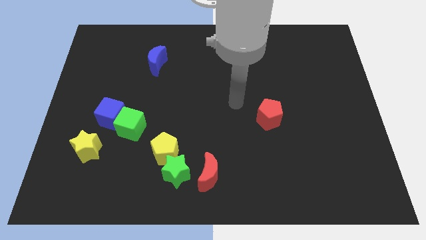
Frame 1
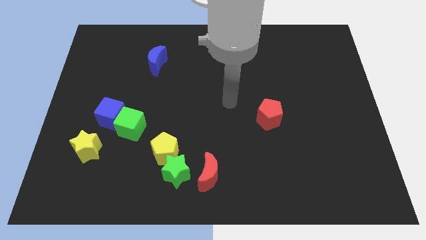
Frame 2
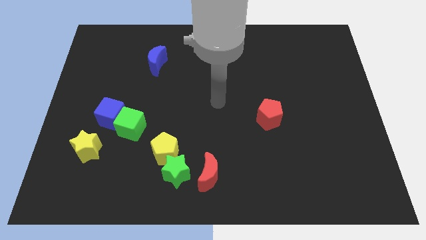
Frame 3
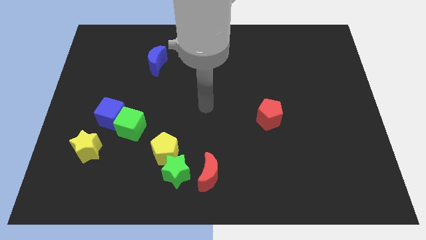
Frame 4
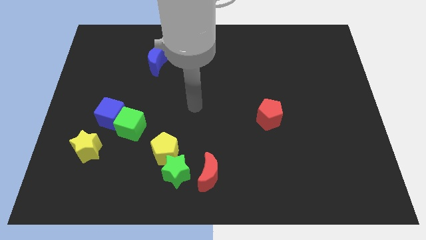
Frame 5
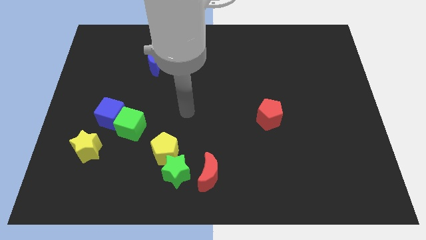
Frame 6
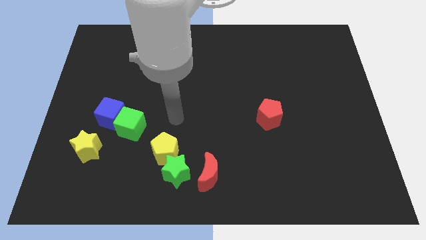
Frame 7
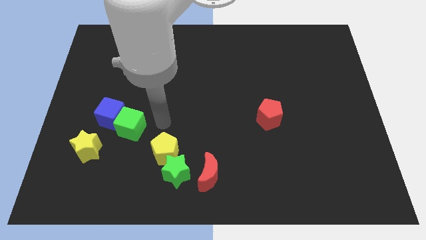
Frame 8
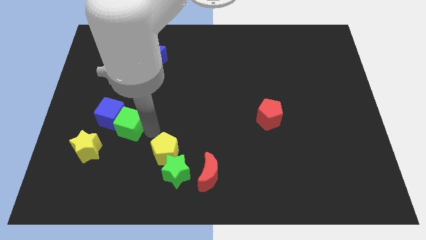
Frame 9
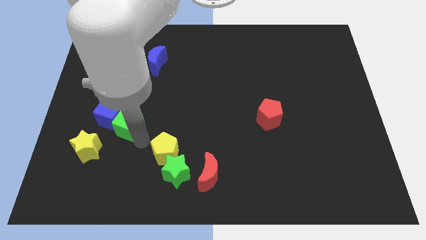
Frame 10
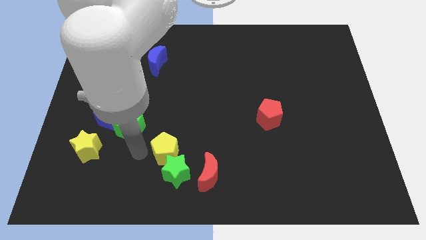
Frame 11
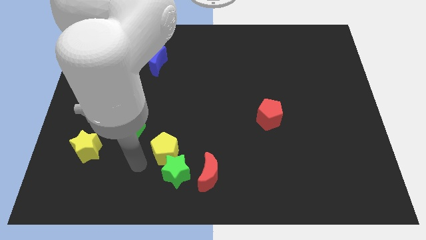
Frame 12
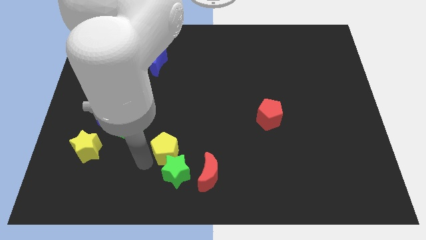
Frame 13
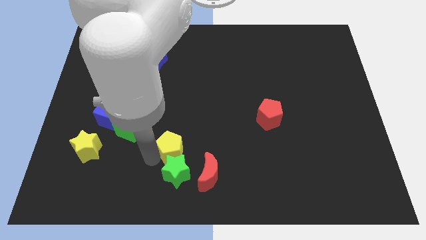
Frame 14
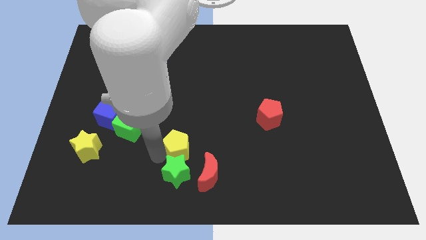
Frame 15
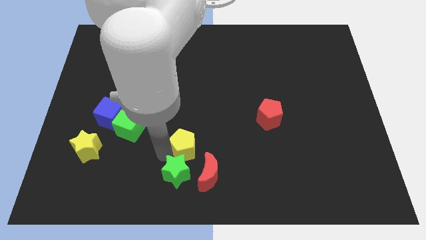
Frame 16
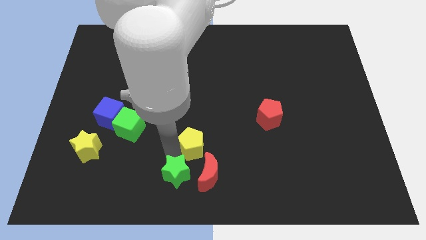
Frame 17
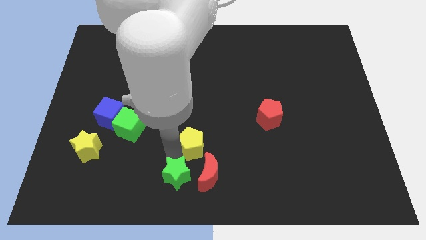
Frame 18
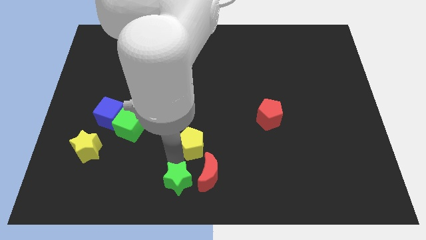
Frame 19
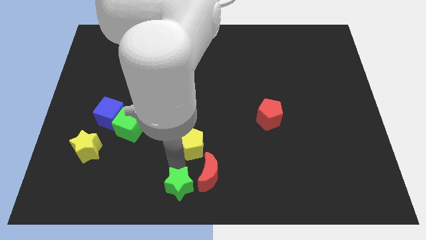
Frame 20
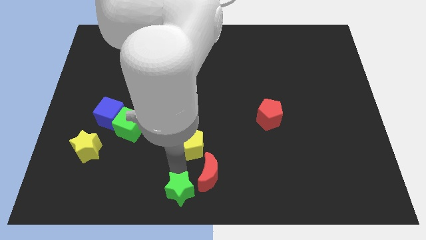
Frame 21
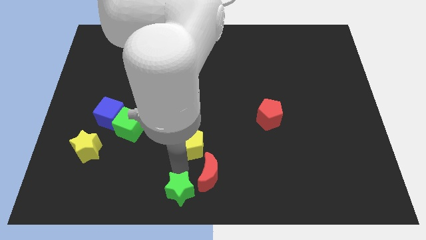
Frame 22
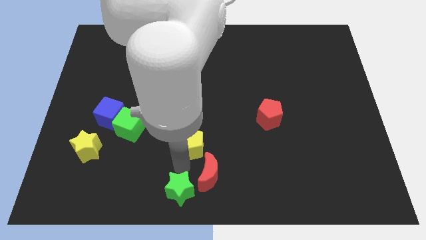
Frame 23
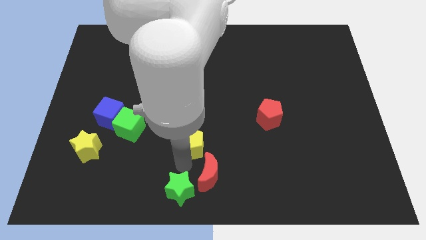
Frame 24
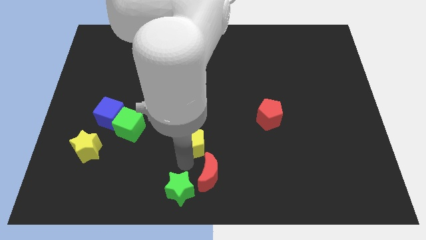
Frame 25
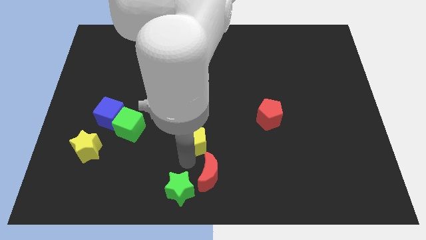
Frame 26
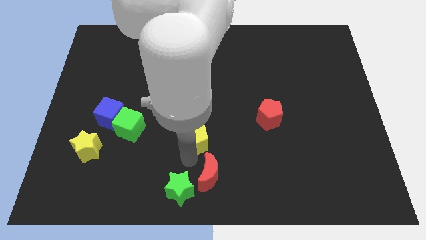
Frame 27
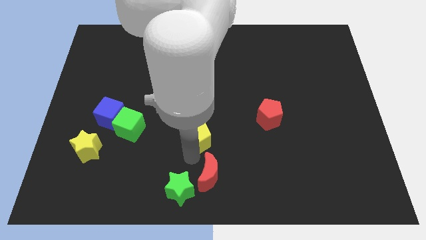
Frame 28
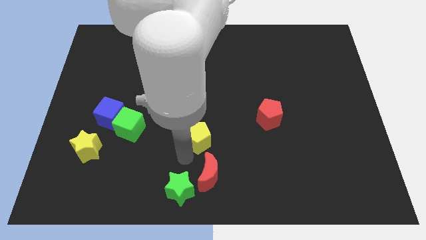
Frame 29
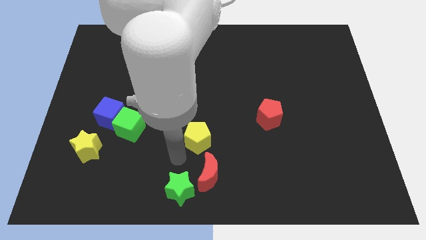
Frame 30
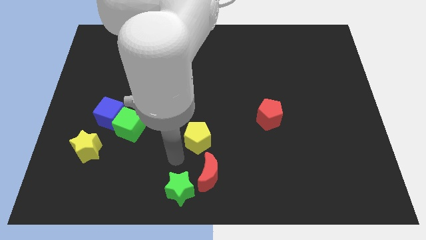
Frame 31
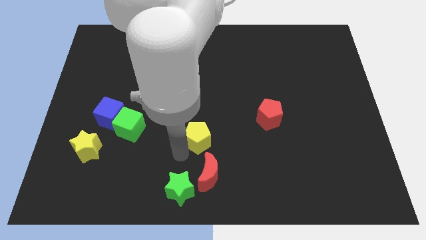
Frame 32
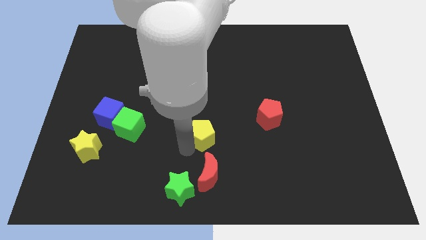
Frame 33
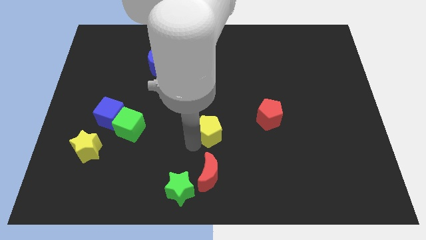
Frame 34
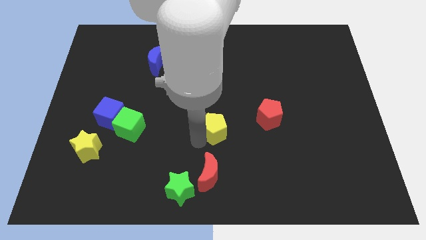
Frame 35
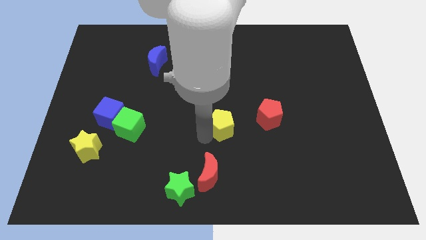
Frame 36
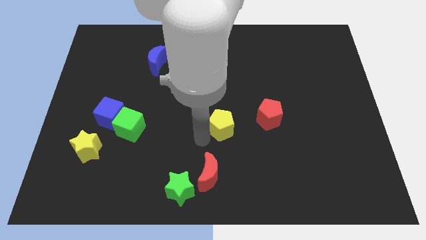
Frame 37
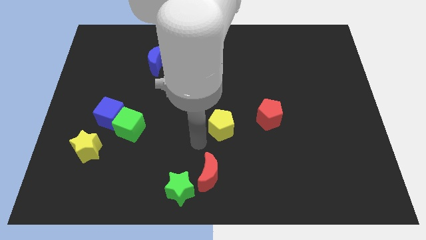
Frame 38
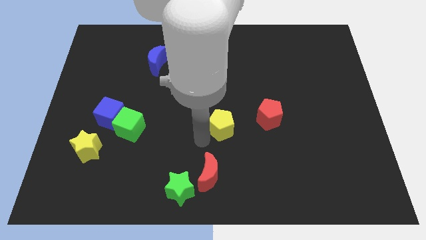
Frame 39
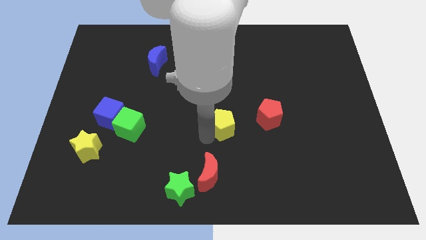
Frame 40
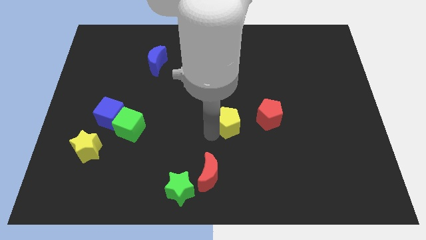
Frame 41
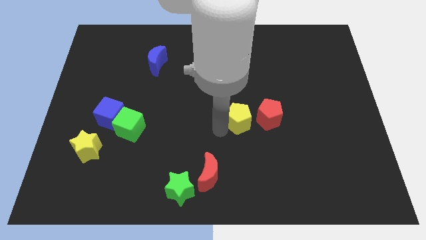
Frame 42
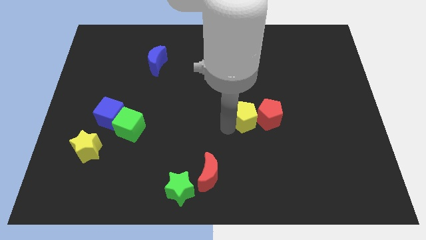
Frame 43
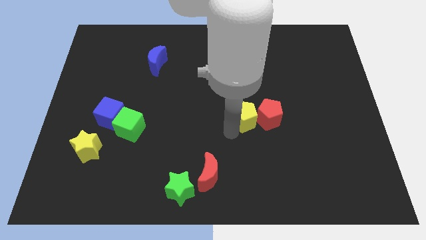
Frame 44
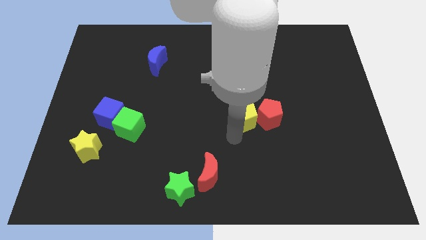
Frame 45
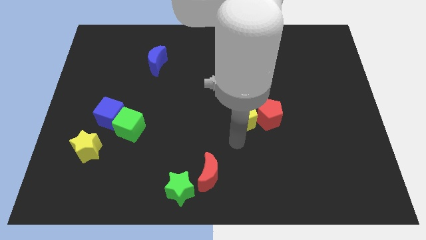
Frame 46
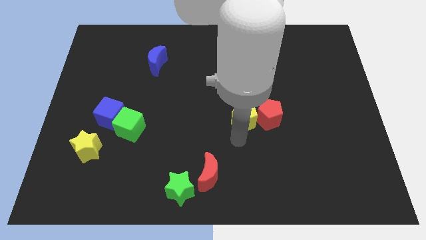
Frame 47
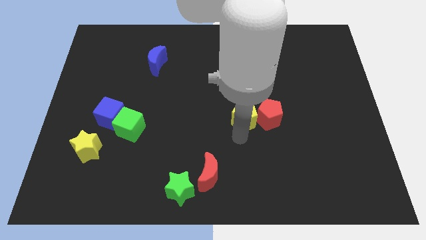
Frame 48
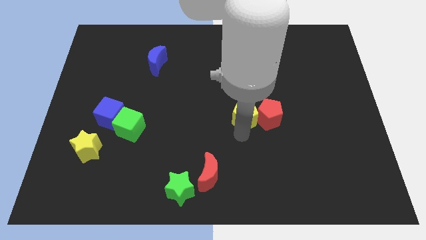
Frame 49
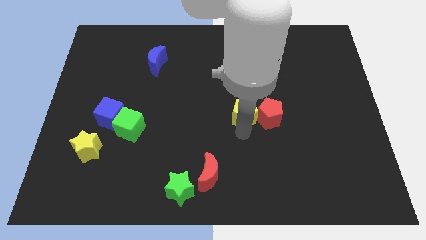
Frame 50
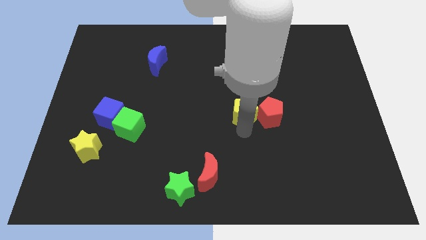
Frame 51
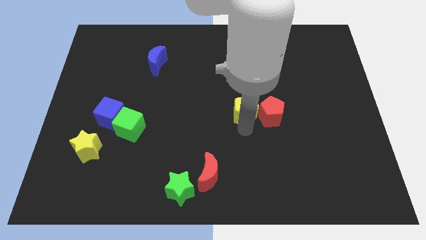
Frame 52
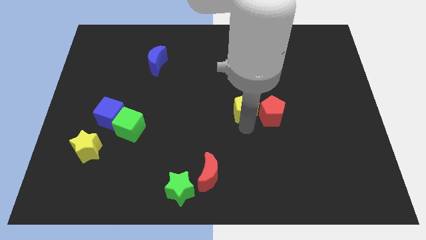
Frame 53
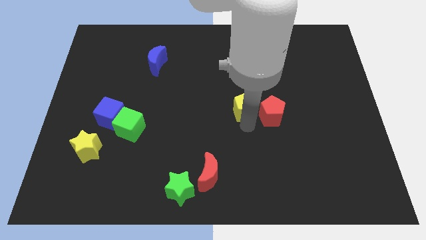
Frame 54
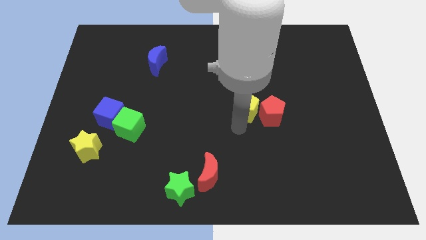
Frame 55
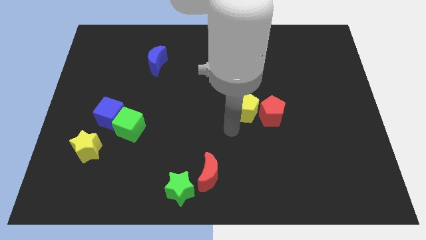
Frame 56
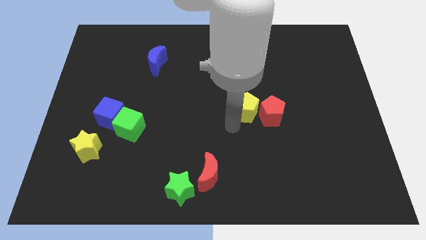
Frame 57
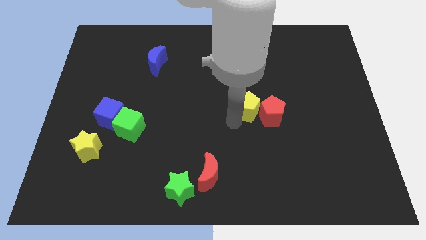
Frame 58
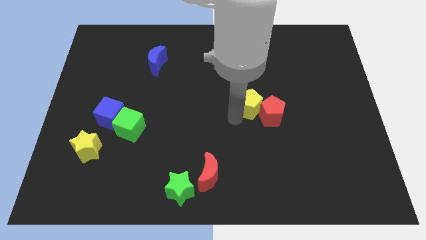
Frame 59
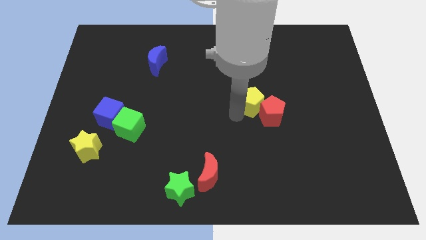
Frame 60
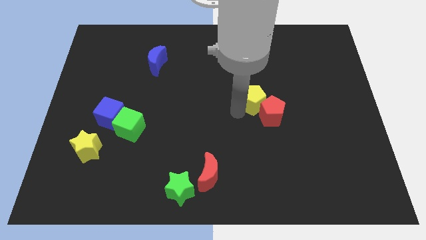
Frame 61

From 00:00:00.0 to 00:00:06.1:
push the yellow pentagon to the top of the red pentagon

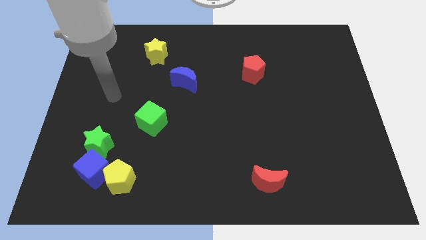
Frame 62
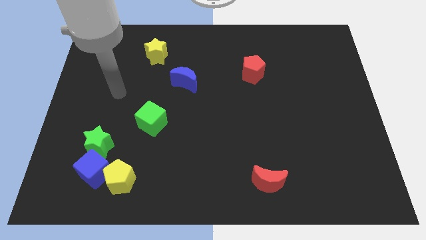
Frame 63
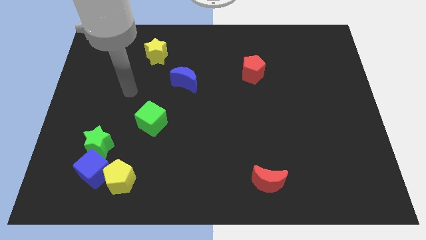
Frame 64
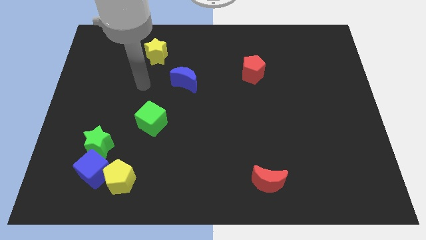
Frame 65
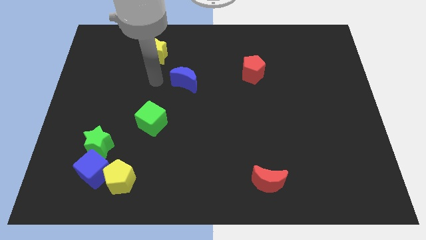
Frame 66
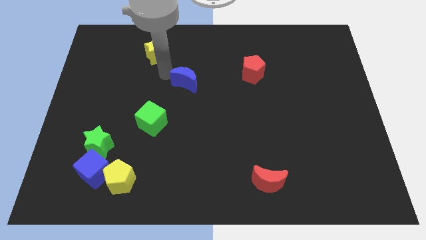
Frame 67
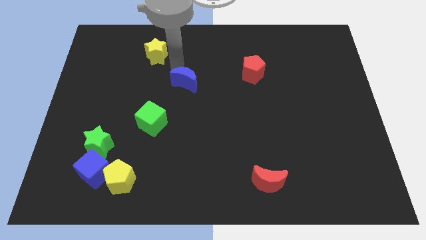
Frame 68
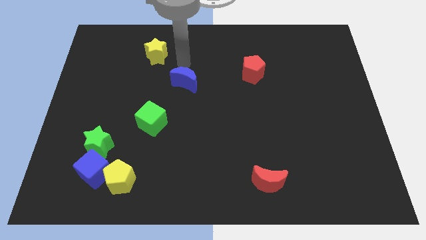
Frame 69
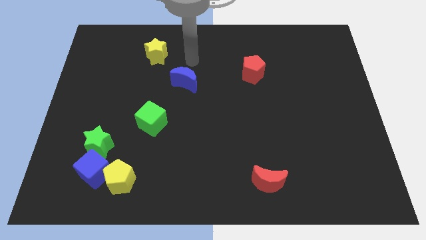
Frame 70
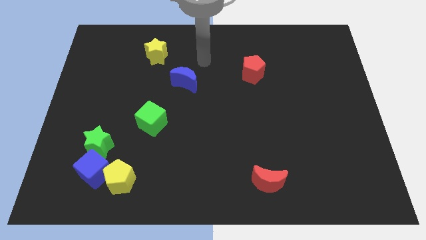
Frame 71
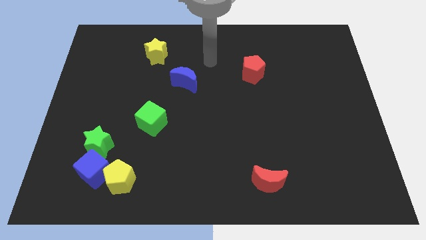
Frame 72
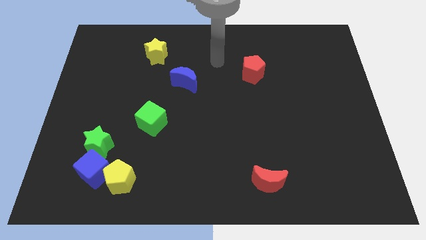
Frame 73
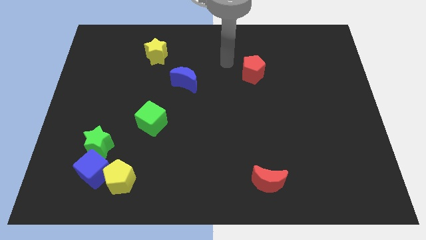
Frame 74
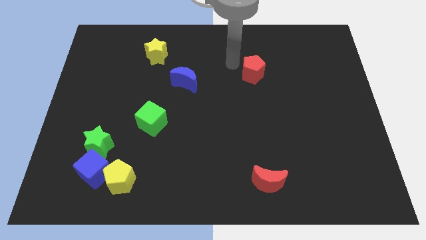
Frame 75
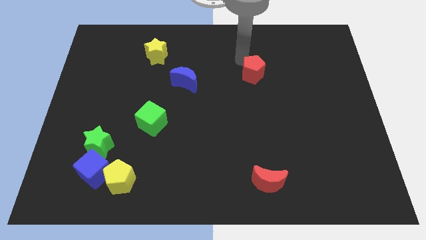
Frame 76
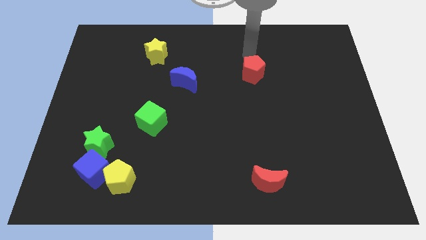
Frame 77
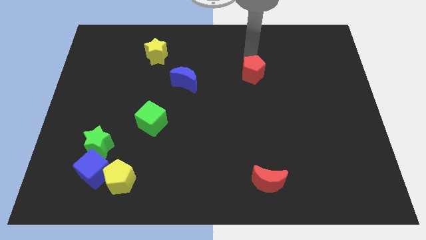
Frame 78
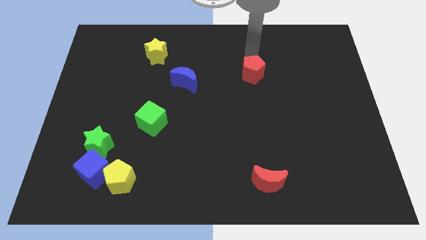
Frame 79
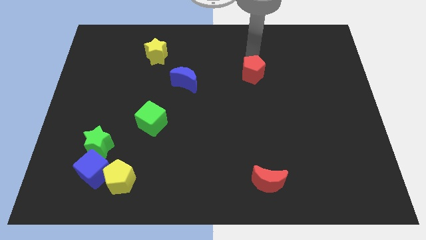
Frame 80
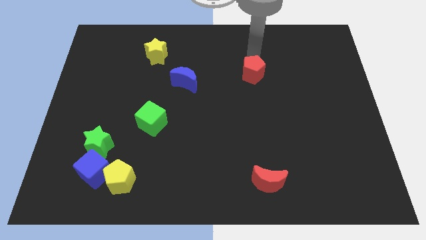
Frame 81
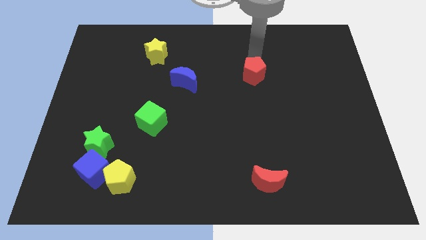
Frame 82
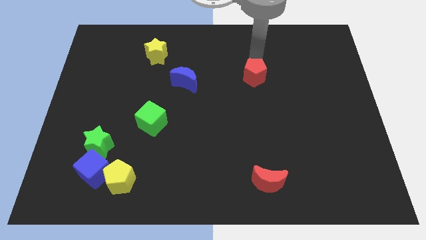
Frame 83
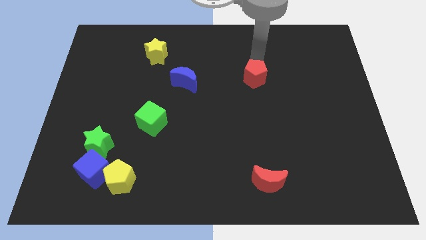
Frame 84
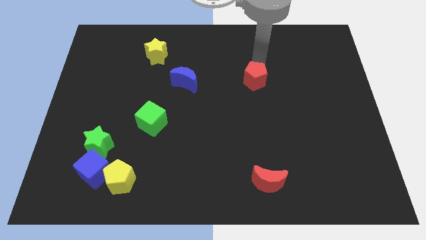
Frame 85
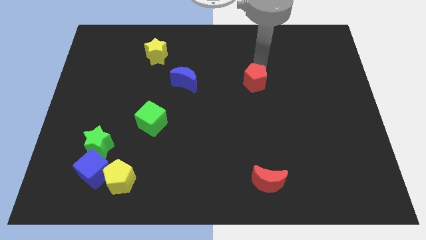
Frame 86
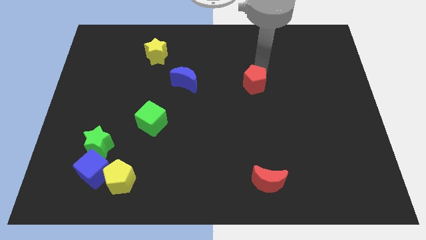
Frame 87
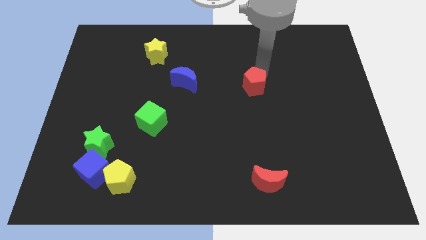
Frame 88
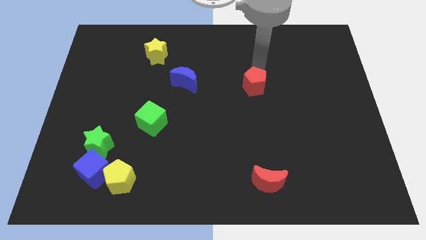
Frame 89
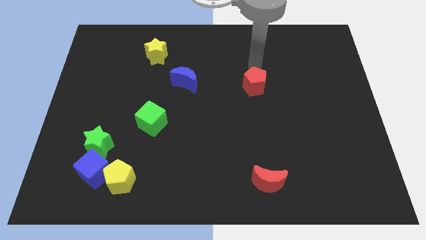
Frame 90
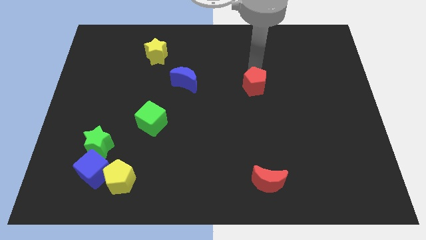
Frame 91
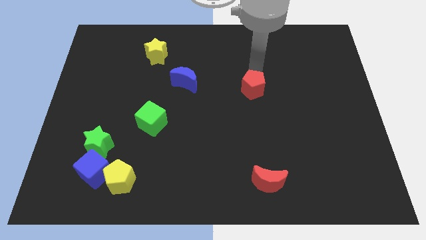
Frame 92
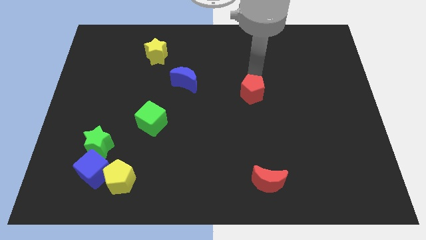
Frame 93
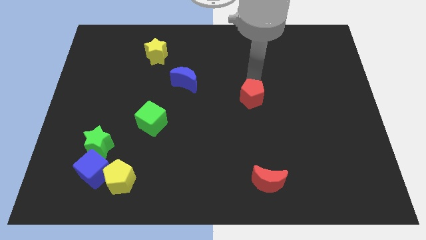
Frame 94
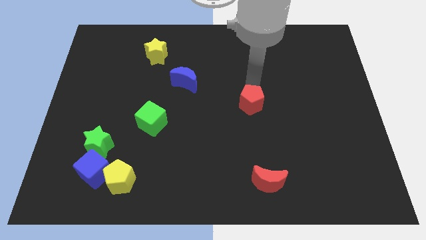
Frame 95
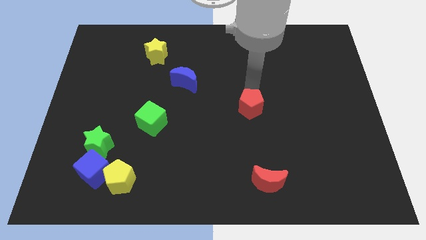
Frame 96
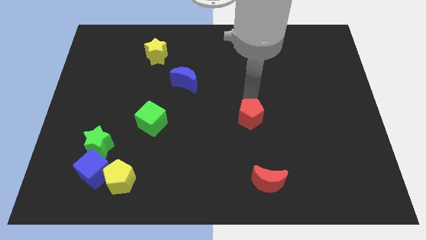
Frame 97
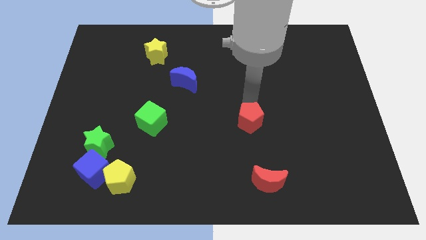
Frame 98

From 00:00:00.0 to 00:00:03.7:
put the red pentagon to the top of the red moon
